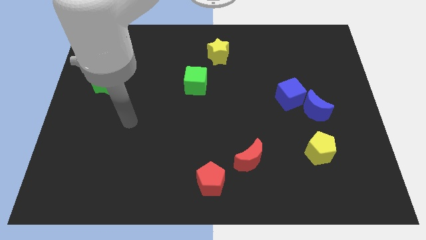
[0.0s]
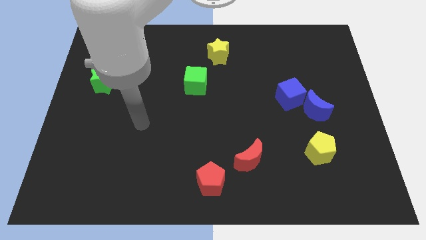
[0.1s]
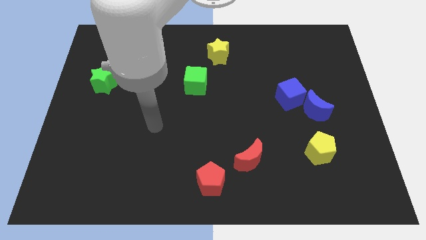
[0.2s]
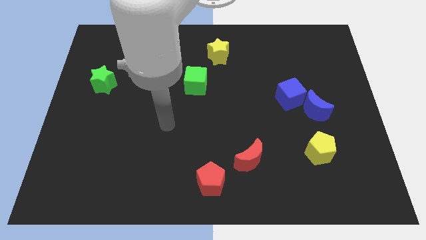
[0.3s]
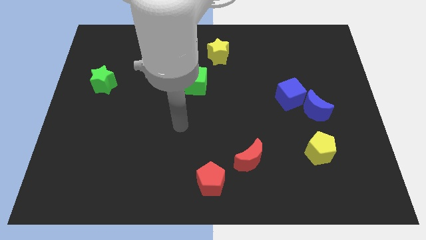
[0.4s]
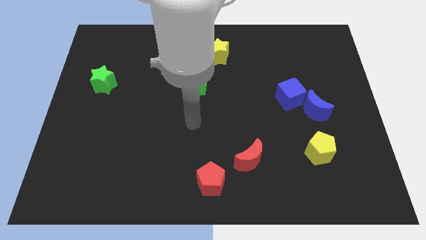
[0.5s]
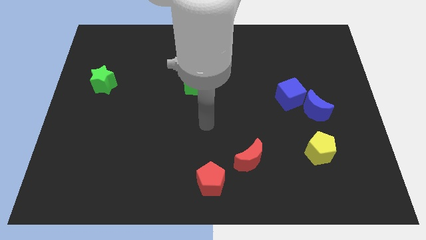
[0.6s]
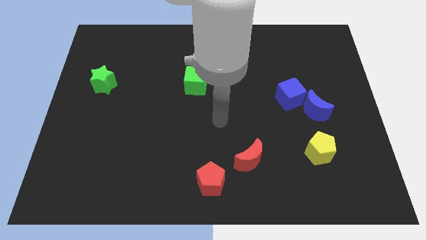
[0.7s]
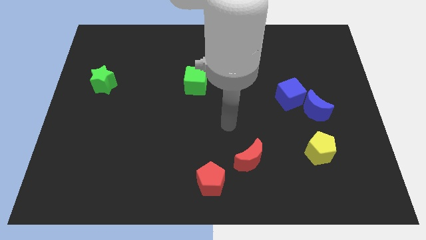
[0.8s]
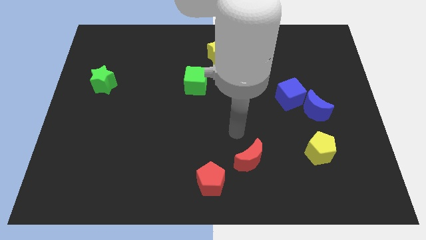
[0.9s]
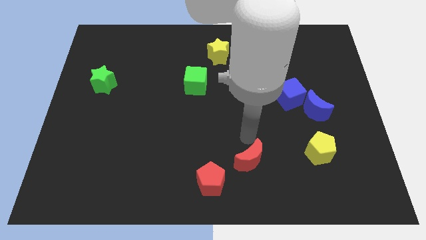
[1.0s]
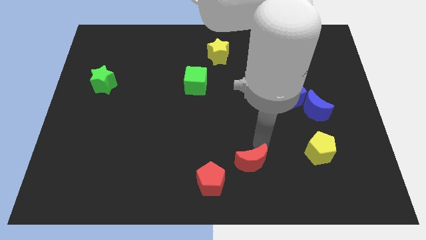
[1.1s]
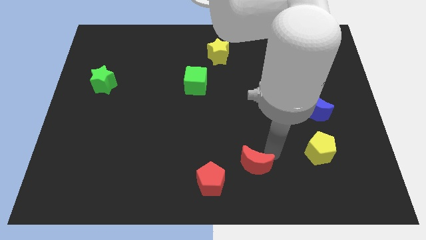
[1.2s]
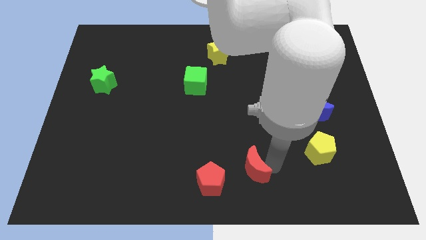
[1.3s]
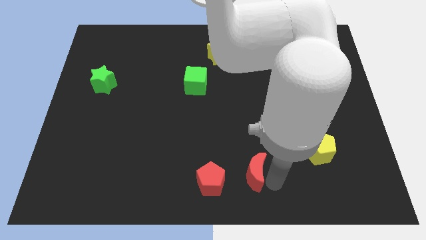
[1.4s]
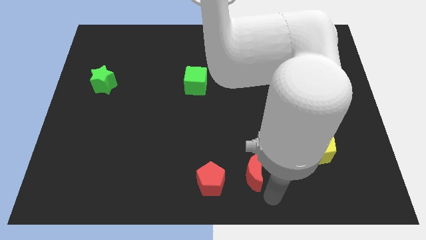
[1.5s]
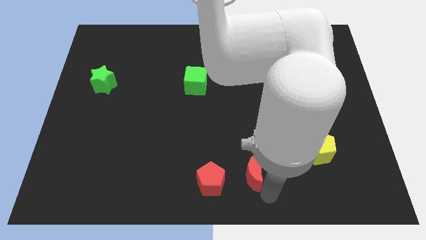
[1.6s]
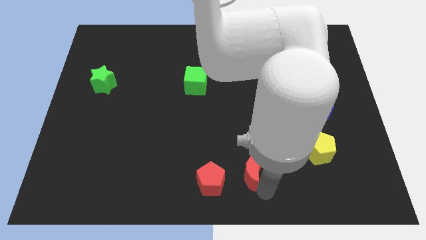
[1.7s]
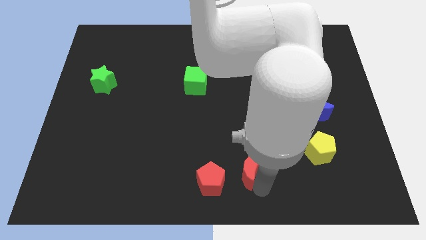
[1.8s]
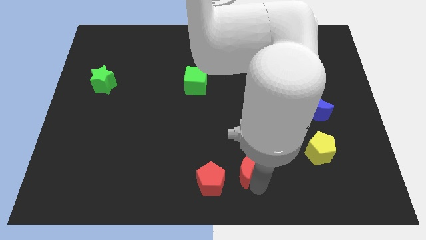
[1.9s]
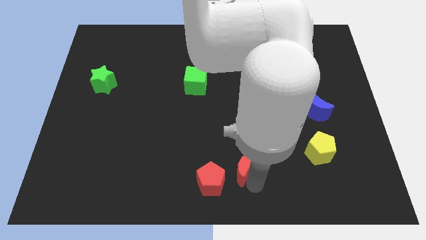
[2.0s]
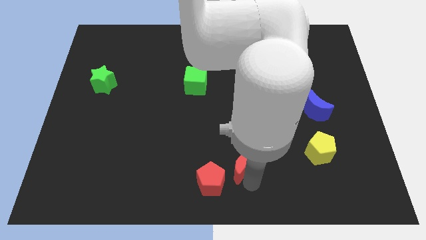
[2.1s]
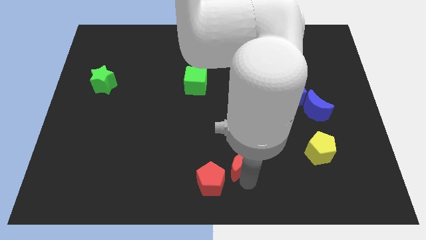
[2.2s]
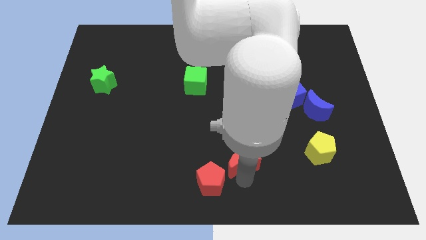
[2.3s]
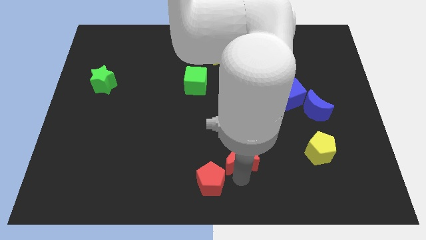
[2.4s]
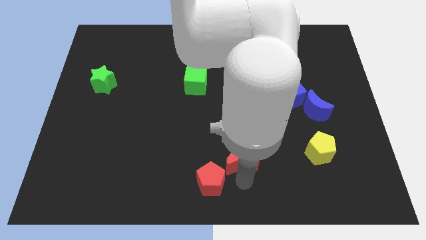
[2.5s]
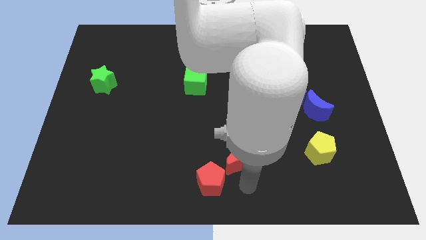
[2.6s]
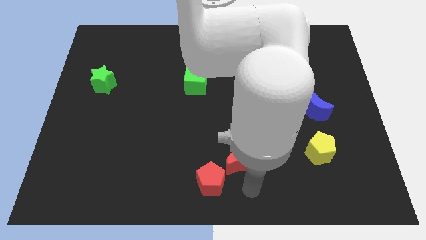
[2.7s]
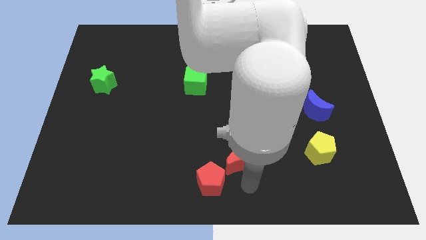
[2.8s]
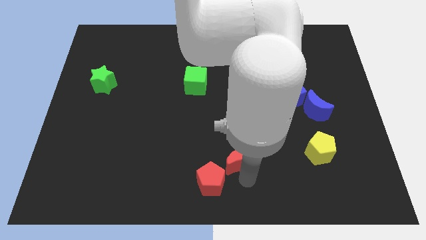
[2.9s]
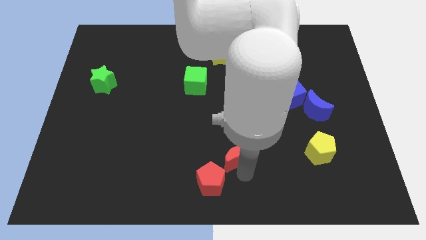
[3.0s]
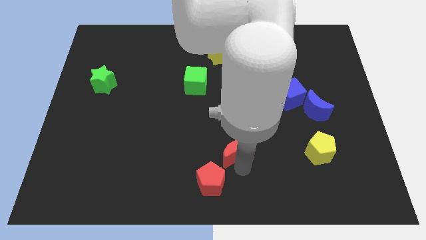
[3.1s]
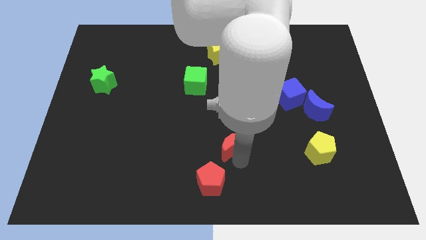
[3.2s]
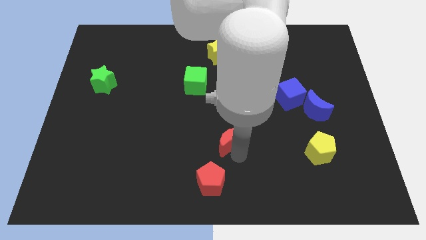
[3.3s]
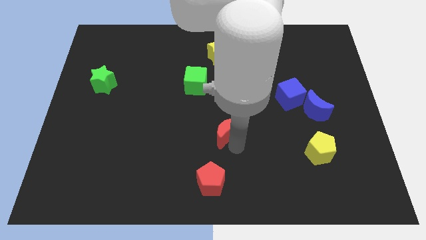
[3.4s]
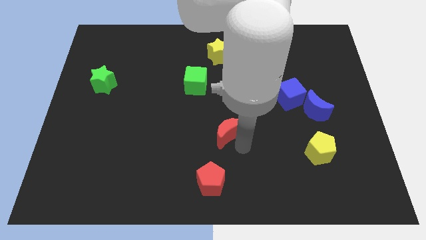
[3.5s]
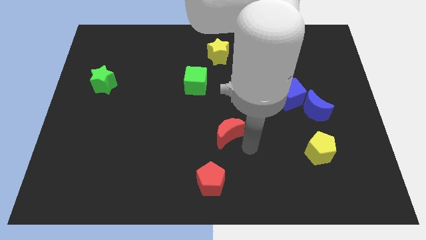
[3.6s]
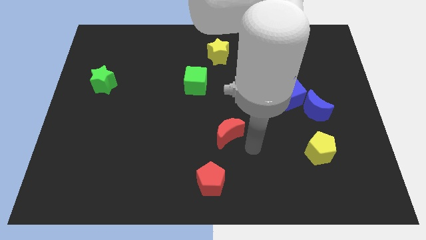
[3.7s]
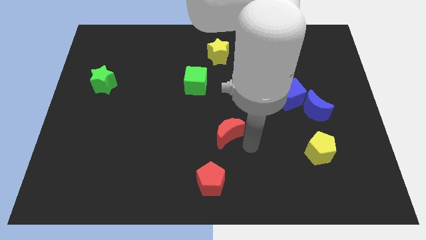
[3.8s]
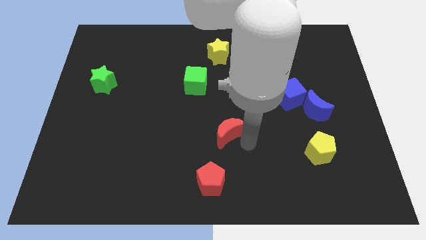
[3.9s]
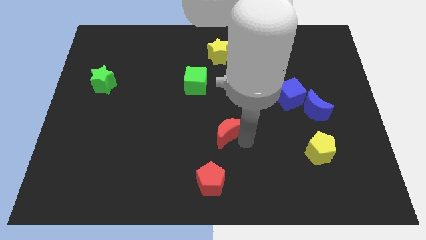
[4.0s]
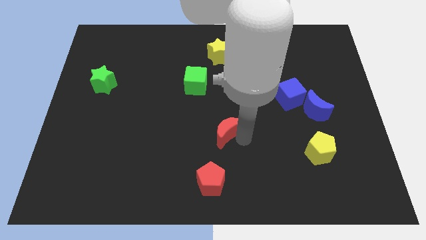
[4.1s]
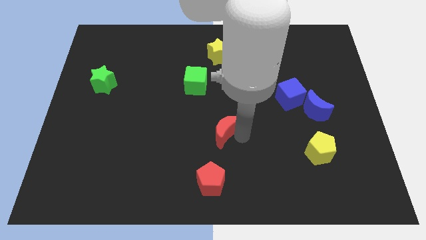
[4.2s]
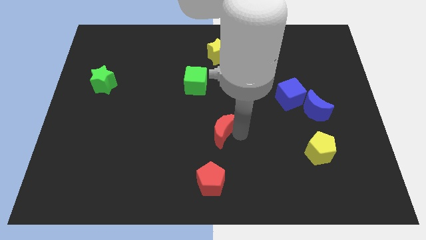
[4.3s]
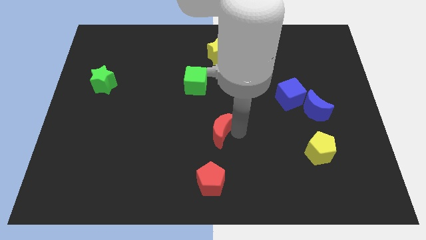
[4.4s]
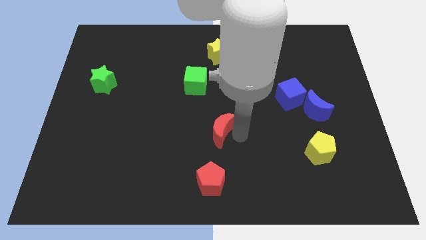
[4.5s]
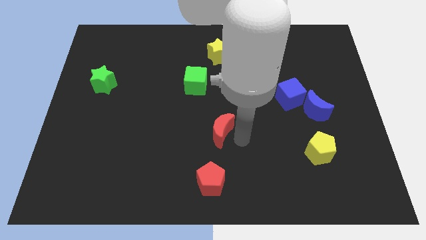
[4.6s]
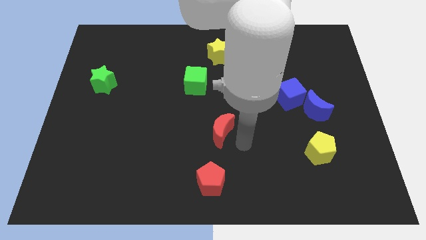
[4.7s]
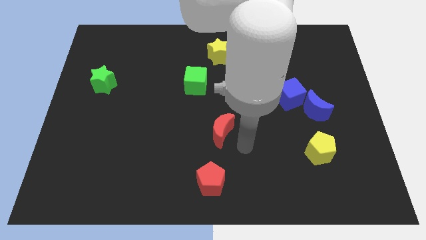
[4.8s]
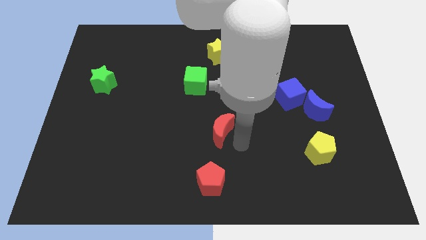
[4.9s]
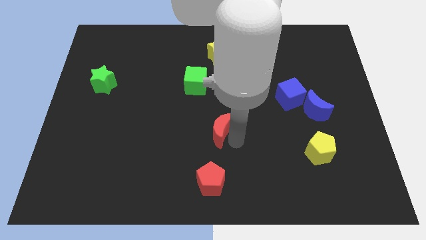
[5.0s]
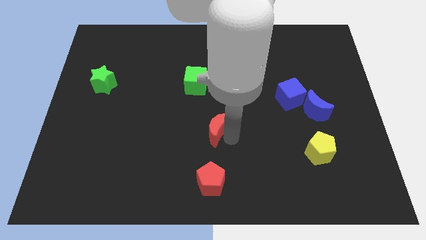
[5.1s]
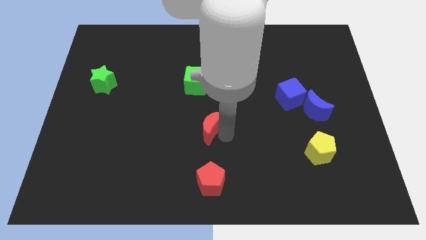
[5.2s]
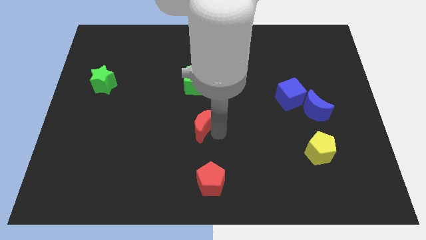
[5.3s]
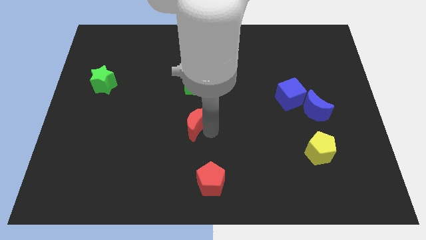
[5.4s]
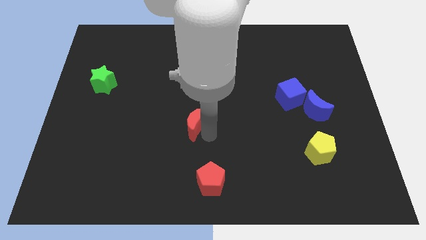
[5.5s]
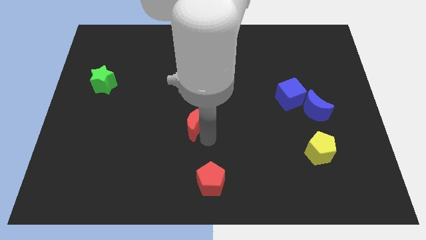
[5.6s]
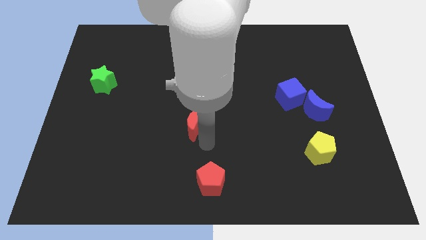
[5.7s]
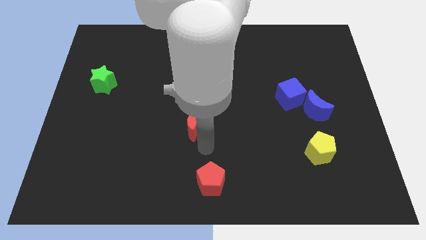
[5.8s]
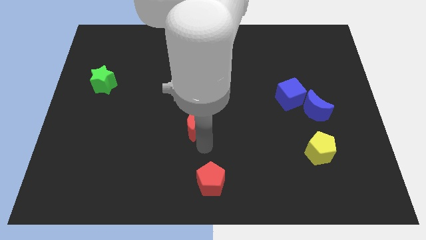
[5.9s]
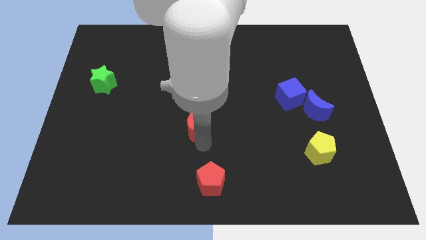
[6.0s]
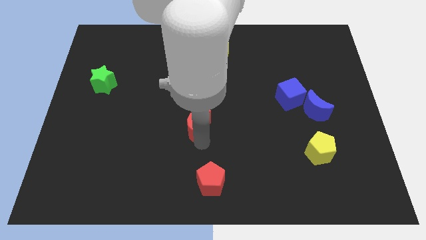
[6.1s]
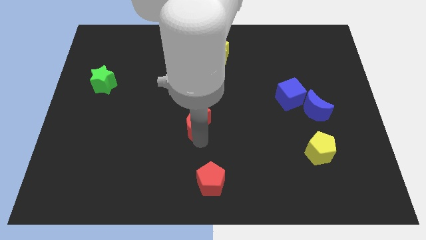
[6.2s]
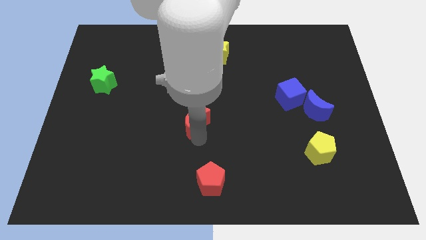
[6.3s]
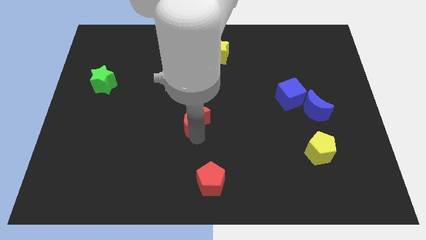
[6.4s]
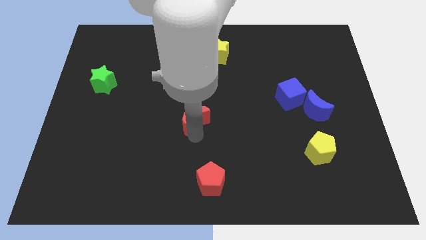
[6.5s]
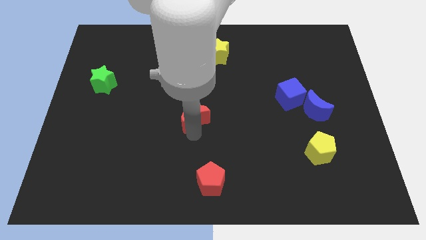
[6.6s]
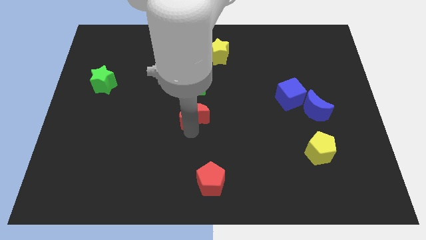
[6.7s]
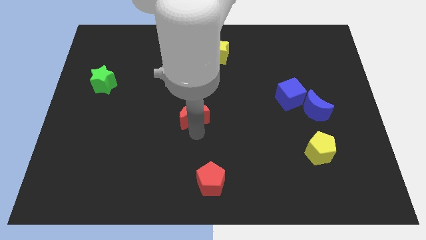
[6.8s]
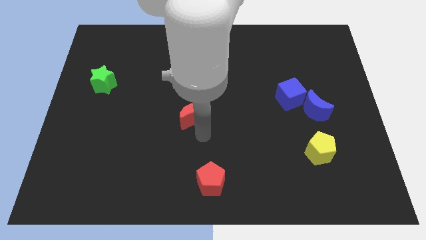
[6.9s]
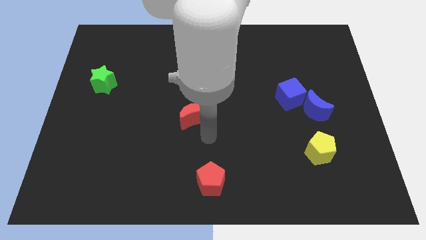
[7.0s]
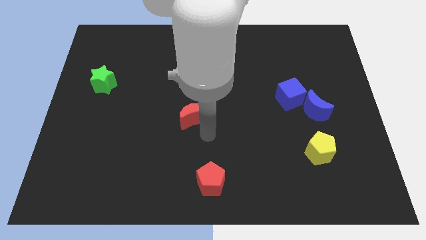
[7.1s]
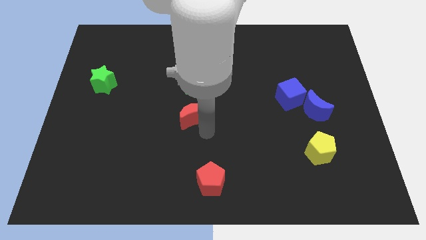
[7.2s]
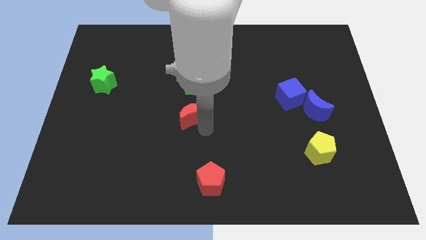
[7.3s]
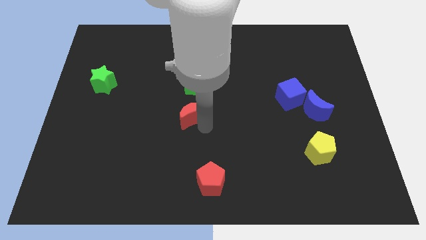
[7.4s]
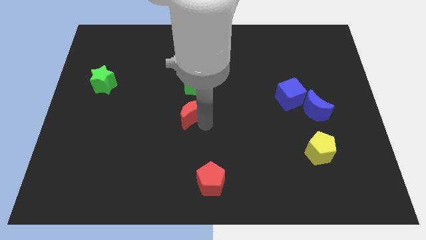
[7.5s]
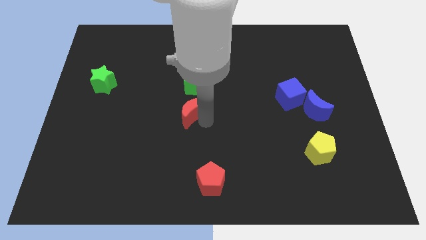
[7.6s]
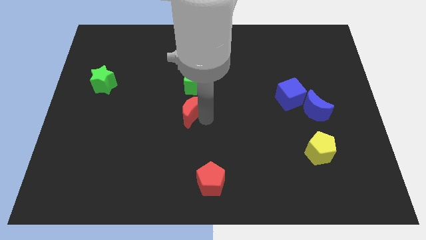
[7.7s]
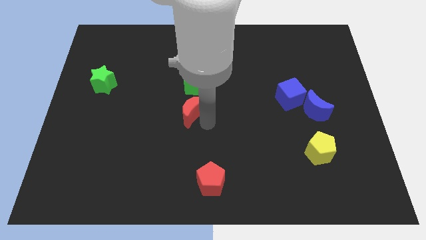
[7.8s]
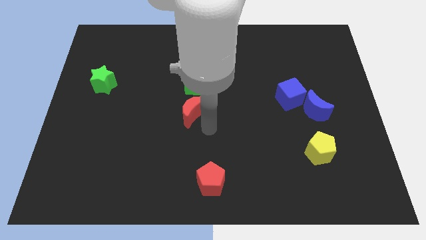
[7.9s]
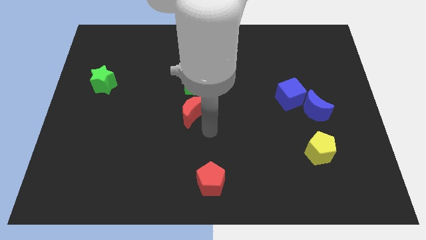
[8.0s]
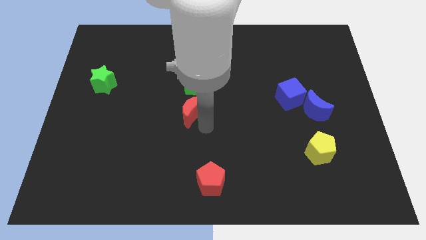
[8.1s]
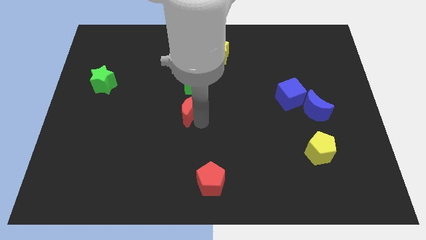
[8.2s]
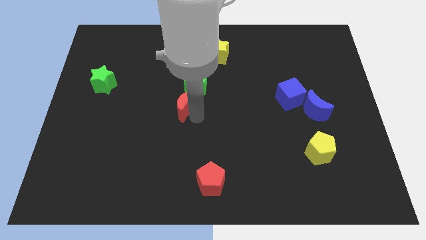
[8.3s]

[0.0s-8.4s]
push the red moon up and left

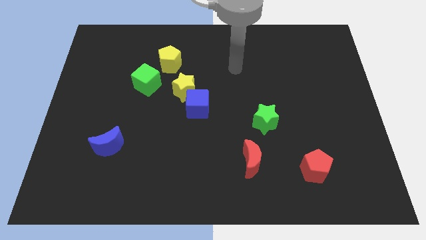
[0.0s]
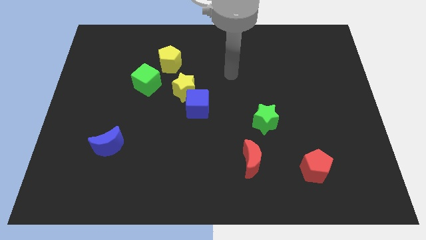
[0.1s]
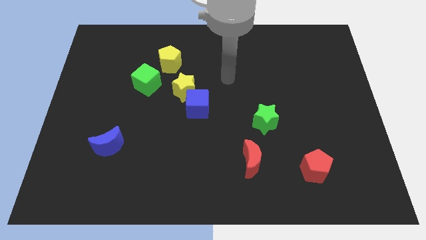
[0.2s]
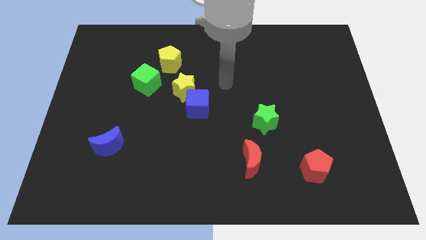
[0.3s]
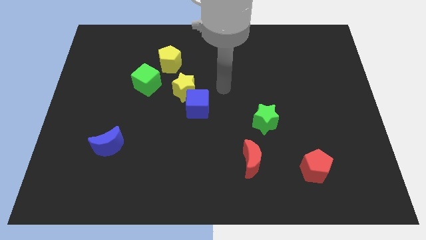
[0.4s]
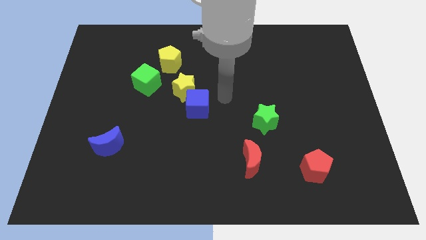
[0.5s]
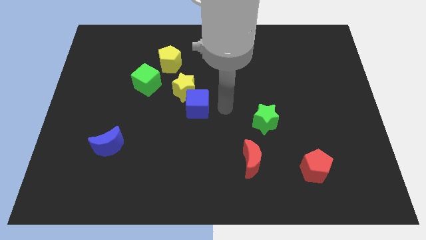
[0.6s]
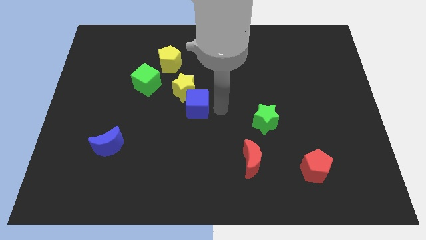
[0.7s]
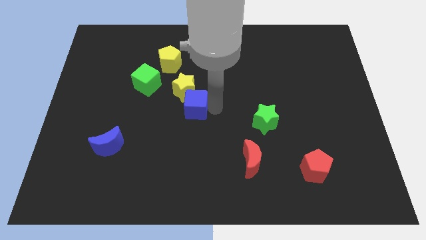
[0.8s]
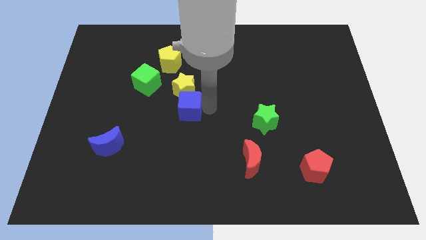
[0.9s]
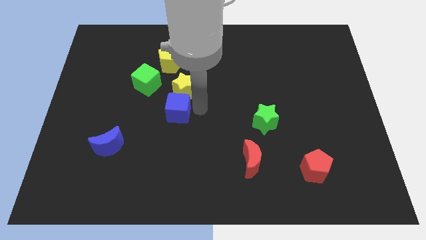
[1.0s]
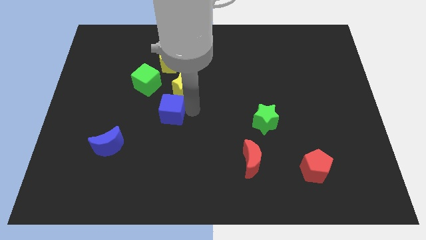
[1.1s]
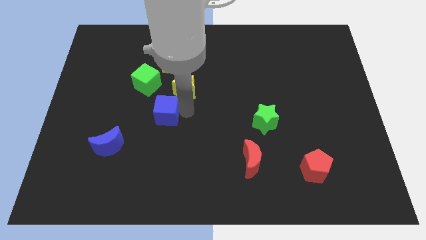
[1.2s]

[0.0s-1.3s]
slide the blue cube left somewhat
